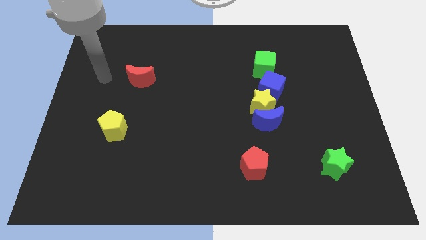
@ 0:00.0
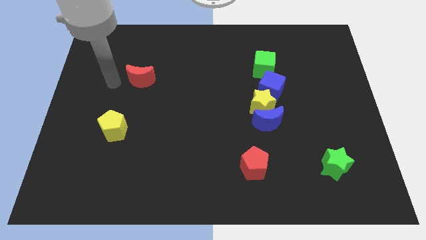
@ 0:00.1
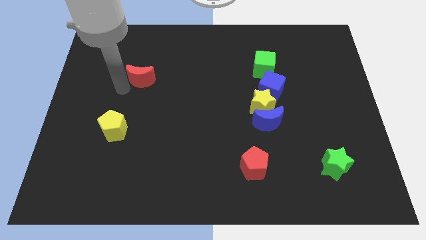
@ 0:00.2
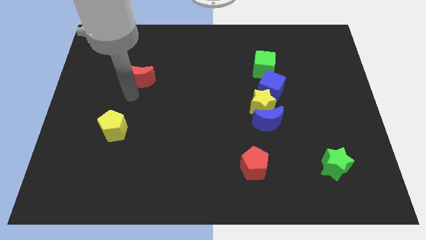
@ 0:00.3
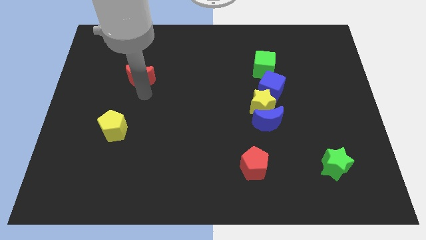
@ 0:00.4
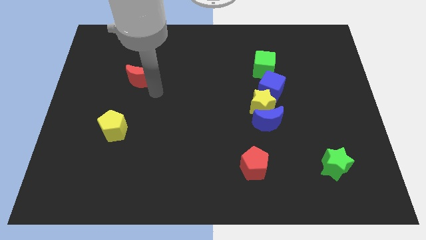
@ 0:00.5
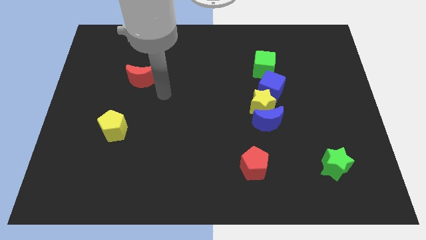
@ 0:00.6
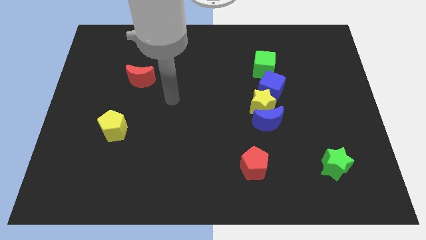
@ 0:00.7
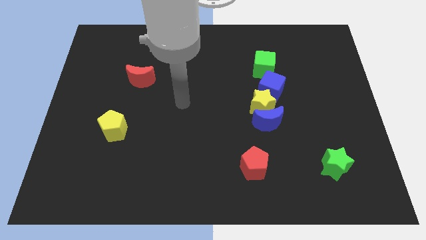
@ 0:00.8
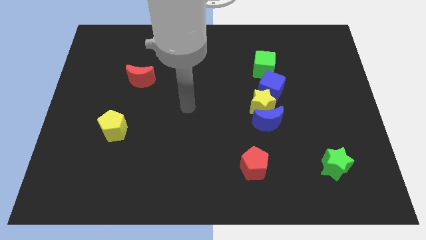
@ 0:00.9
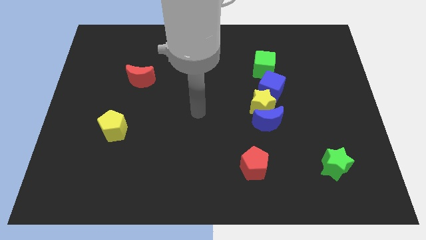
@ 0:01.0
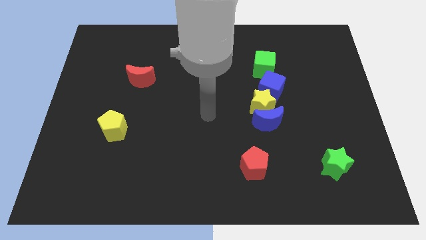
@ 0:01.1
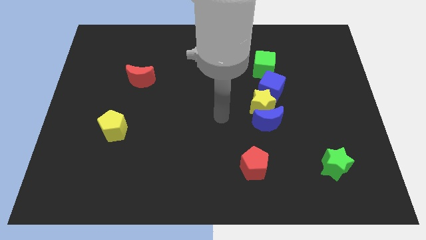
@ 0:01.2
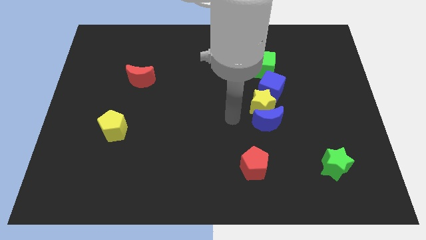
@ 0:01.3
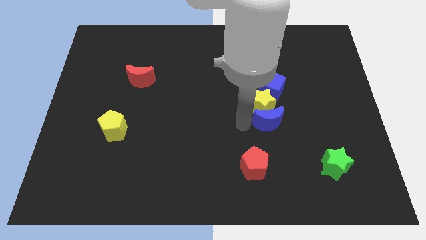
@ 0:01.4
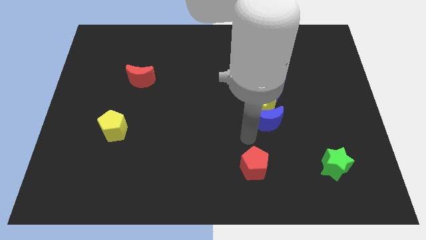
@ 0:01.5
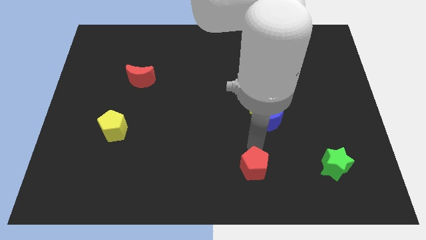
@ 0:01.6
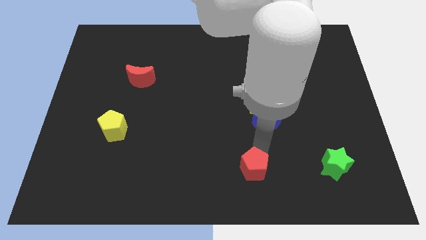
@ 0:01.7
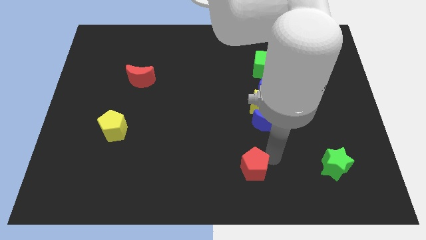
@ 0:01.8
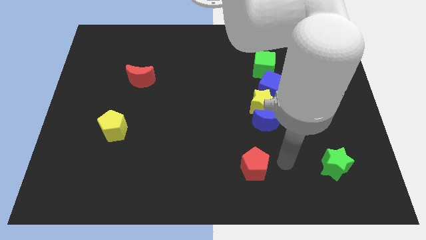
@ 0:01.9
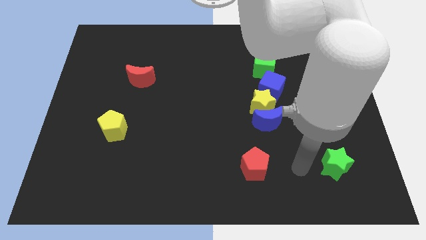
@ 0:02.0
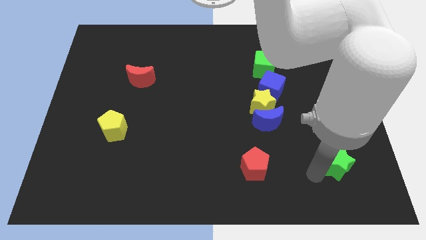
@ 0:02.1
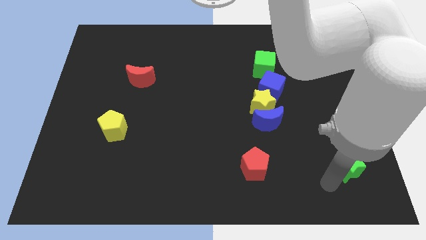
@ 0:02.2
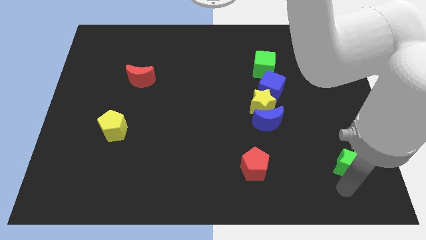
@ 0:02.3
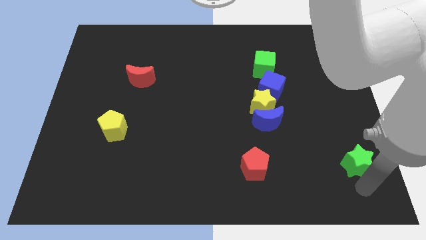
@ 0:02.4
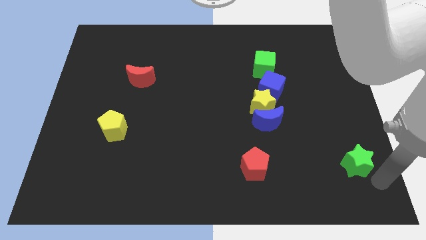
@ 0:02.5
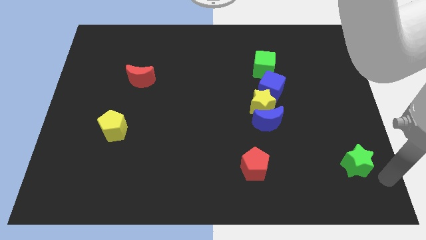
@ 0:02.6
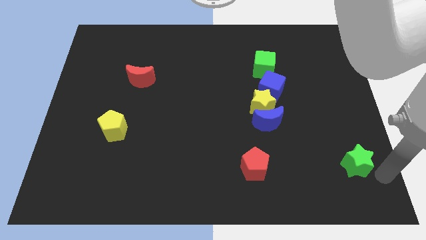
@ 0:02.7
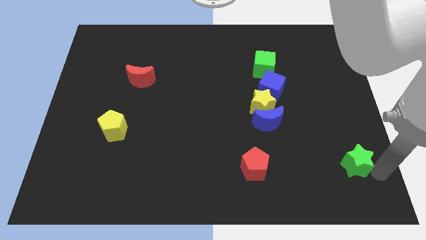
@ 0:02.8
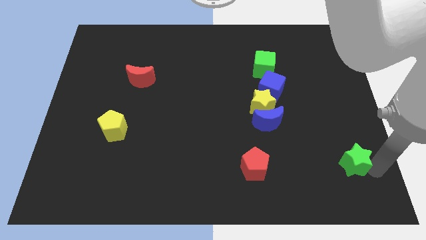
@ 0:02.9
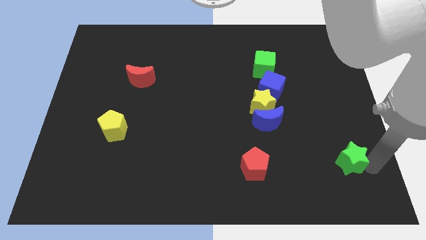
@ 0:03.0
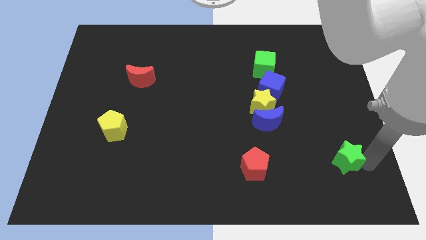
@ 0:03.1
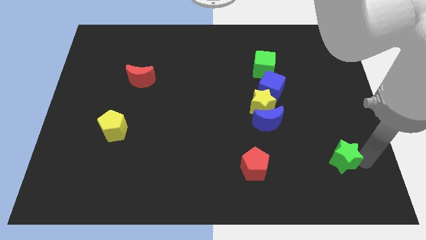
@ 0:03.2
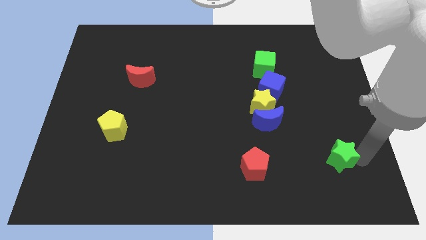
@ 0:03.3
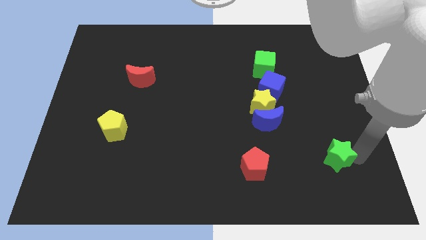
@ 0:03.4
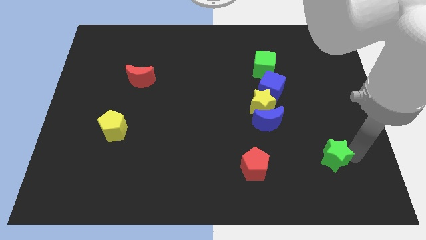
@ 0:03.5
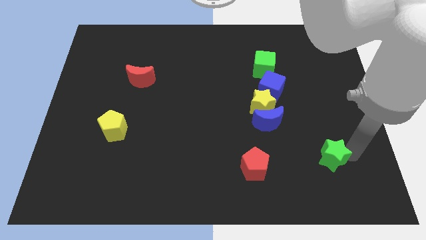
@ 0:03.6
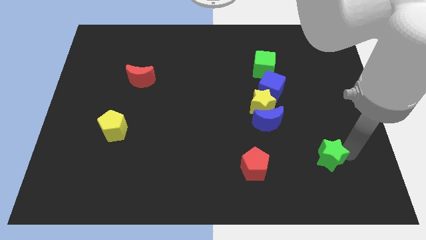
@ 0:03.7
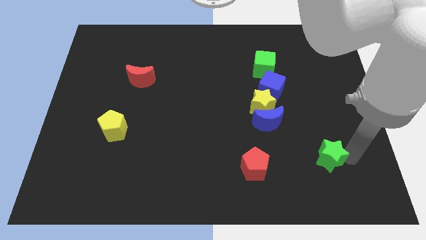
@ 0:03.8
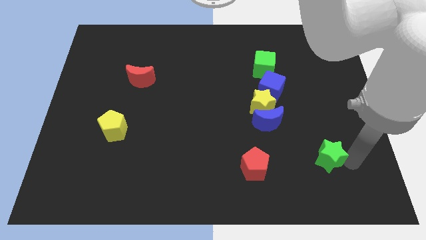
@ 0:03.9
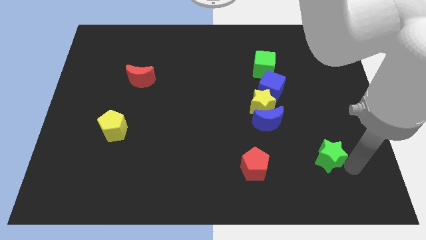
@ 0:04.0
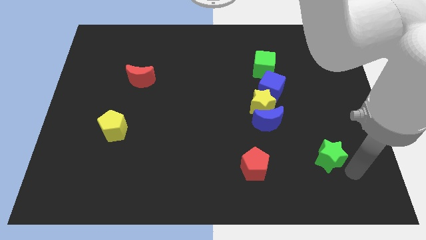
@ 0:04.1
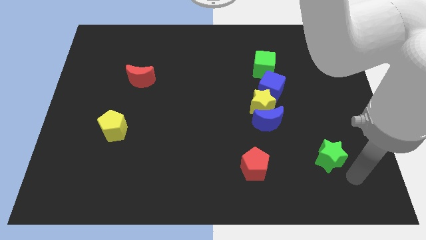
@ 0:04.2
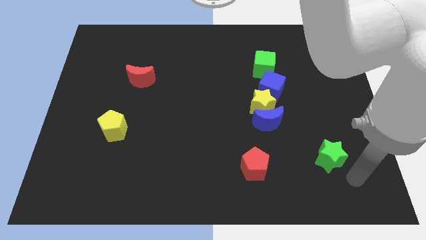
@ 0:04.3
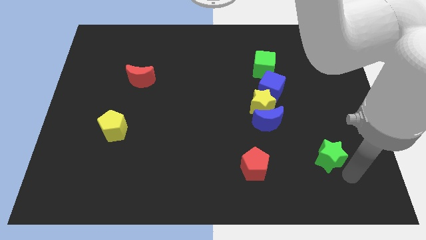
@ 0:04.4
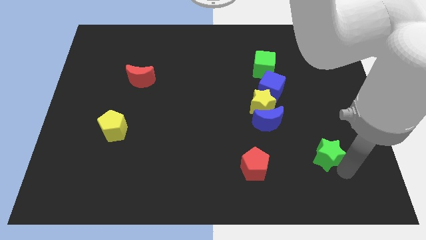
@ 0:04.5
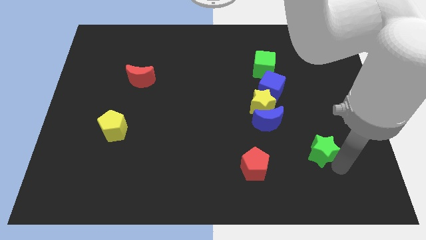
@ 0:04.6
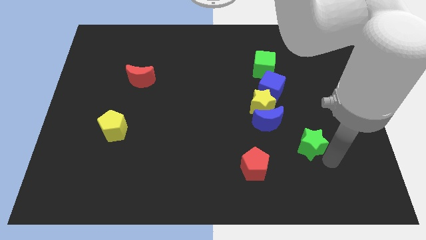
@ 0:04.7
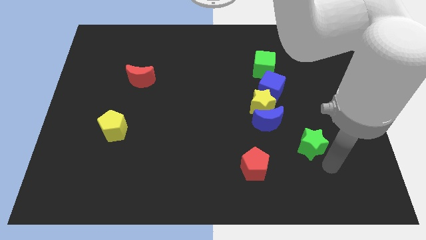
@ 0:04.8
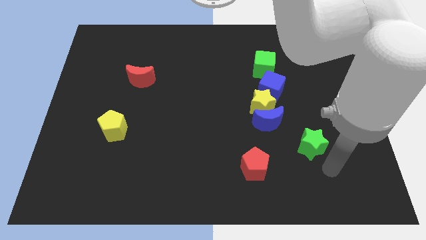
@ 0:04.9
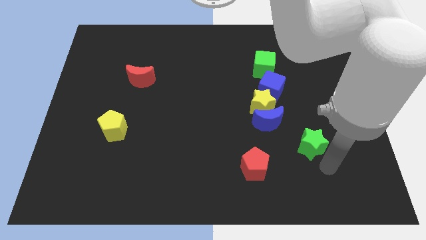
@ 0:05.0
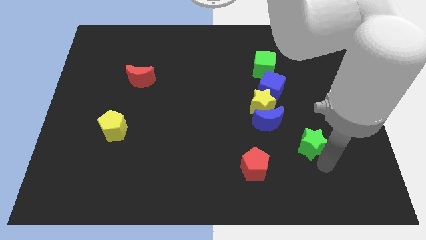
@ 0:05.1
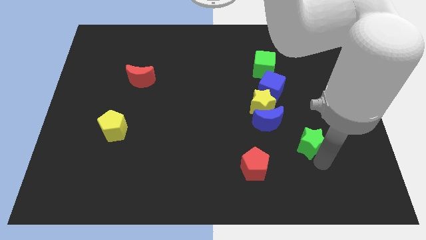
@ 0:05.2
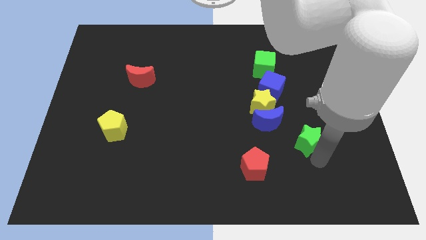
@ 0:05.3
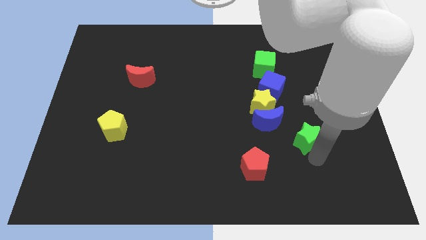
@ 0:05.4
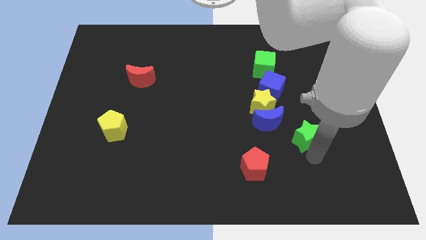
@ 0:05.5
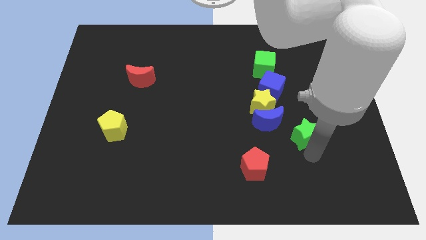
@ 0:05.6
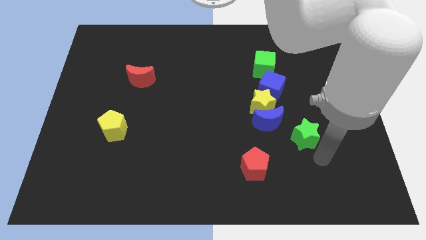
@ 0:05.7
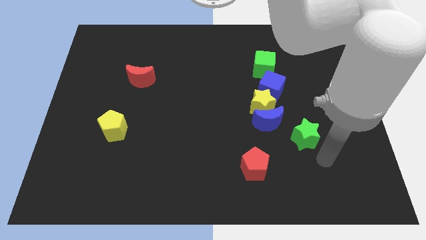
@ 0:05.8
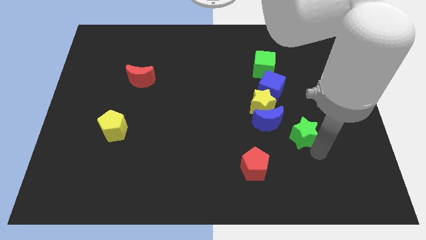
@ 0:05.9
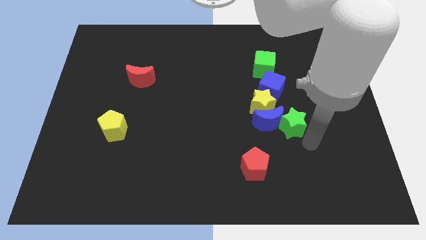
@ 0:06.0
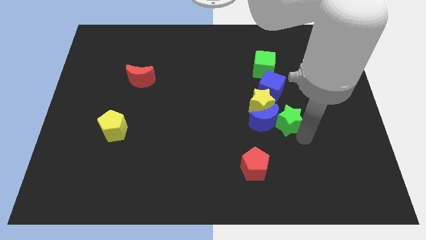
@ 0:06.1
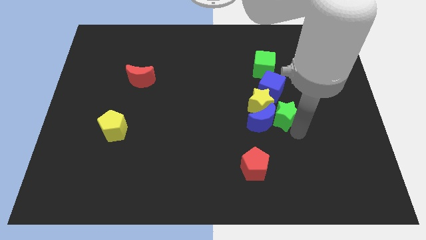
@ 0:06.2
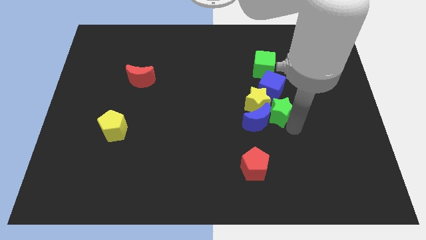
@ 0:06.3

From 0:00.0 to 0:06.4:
push the green star next to the yellow star
